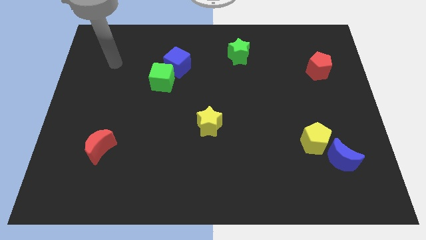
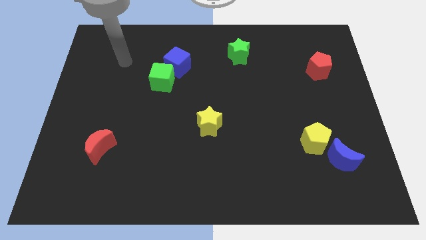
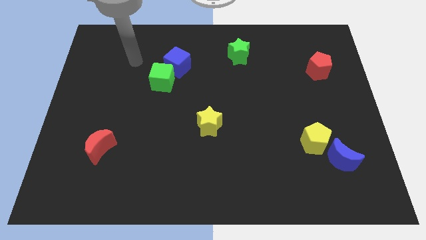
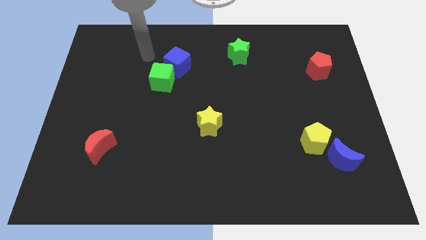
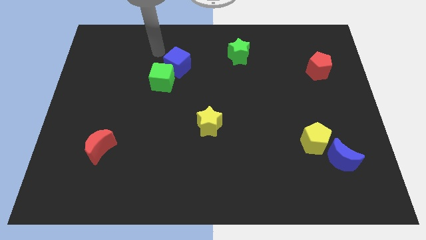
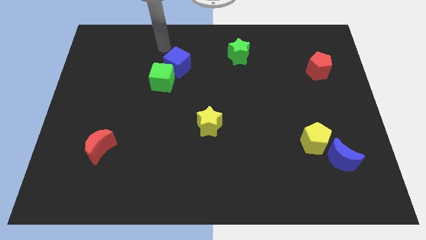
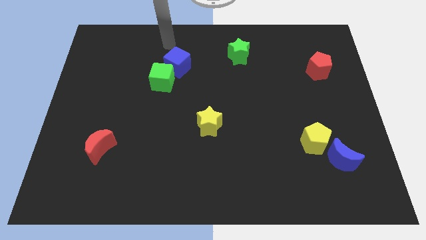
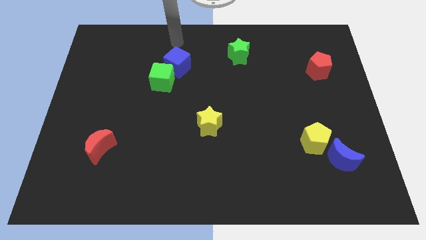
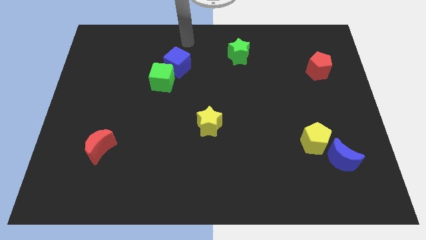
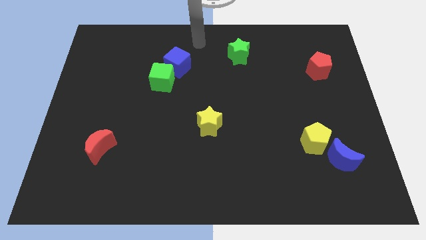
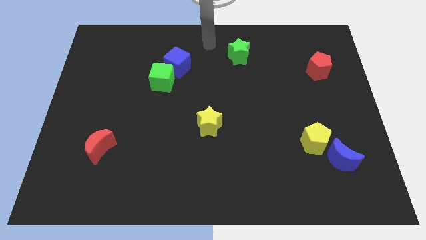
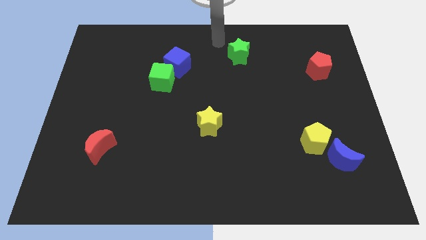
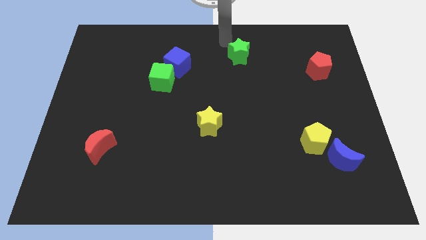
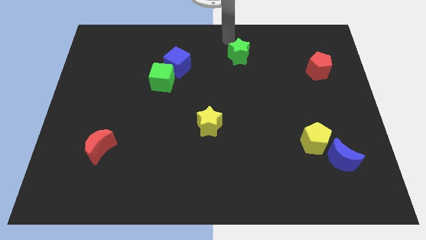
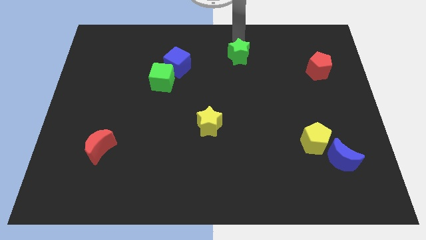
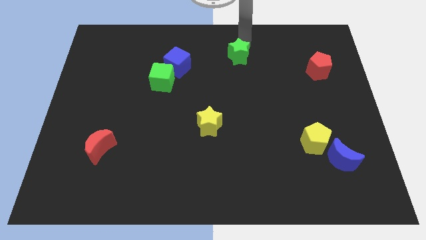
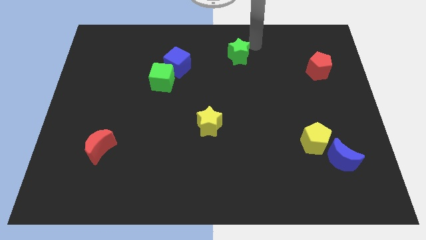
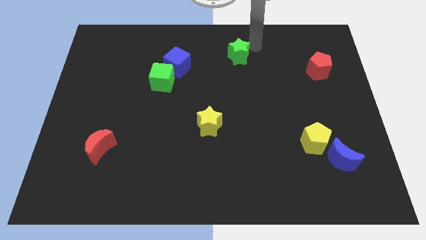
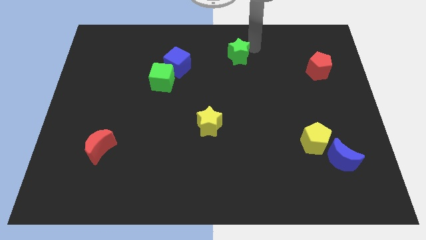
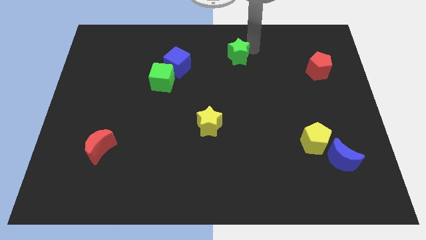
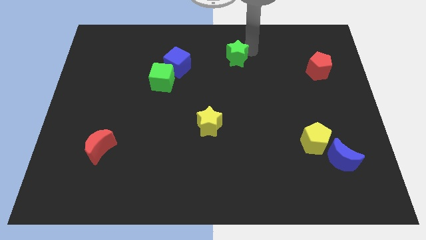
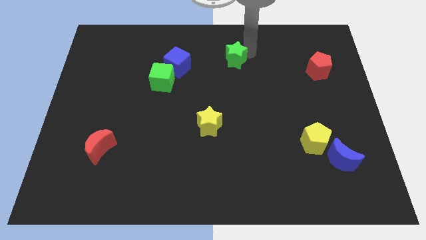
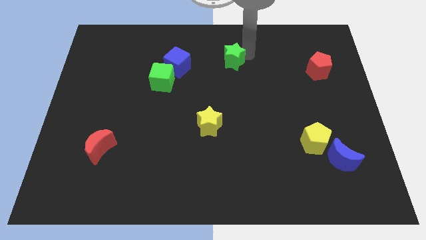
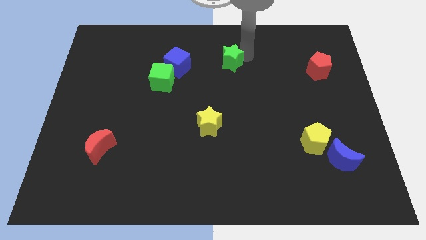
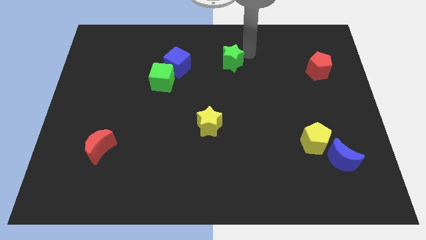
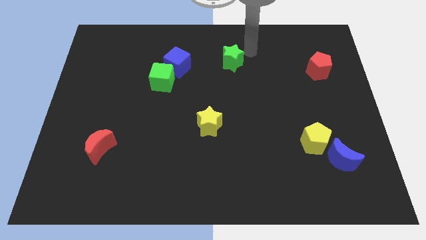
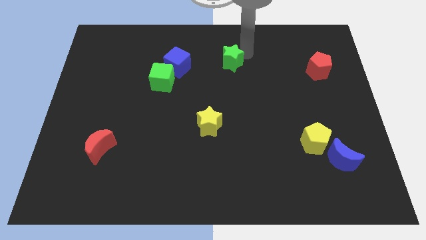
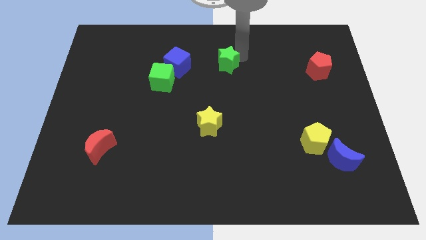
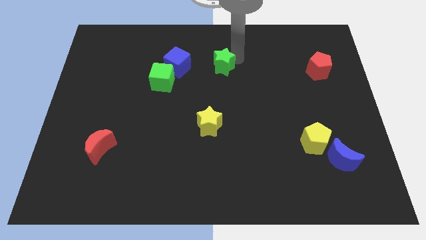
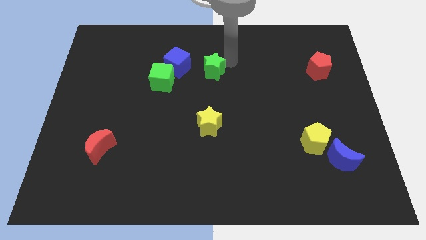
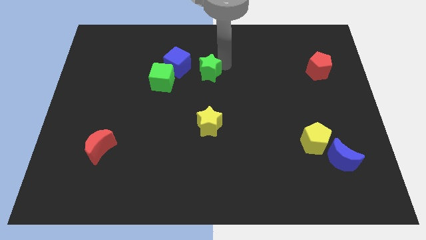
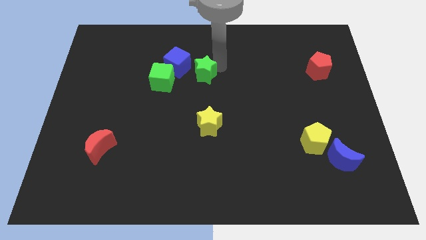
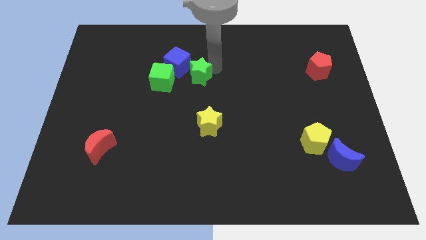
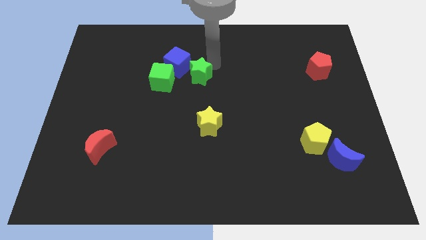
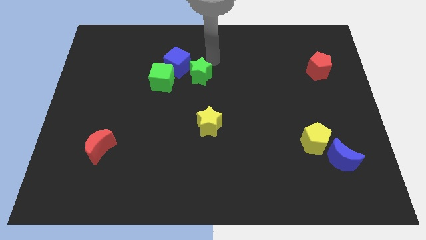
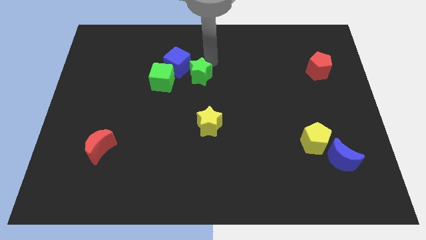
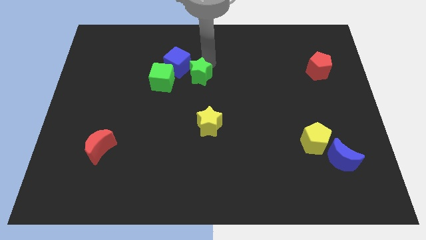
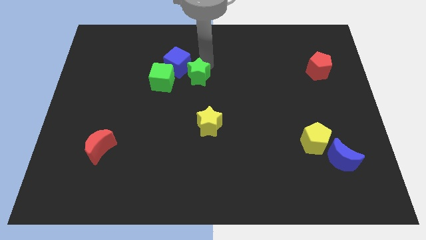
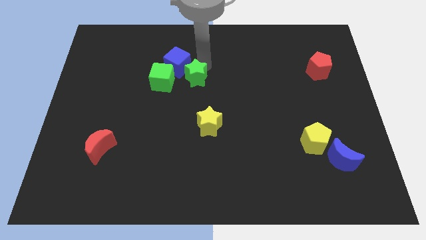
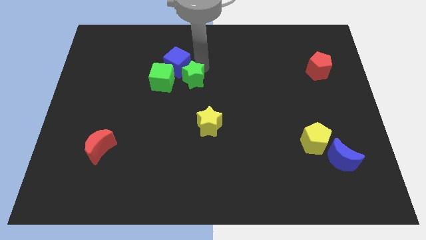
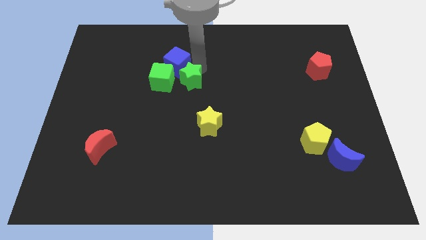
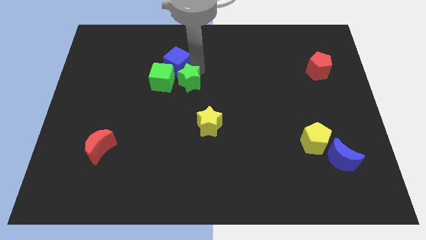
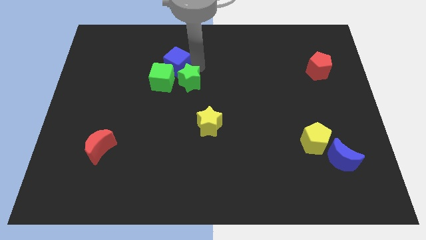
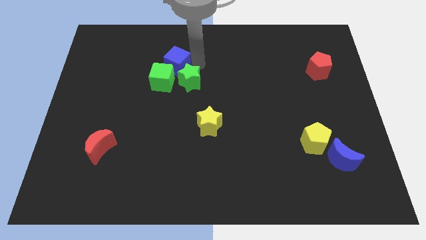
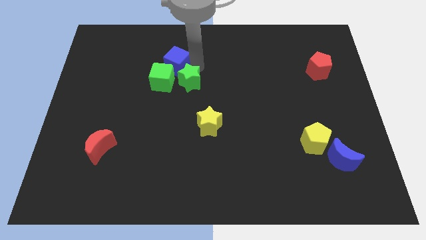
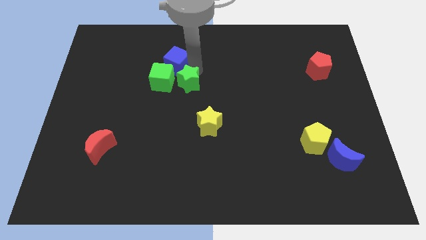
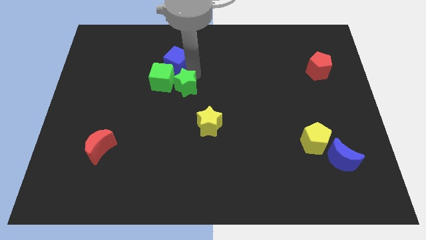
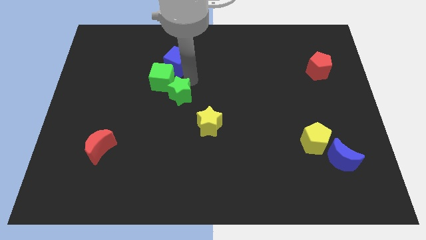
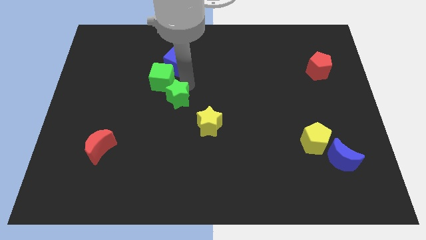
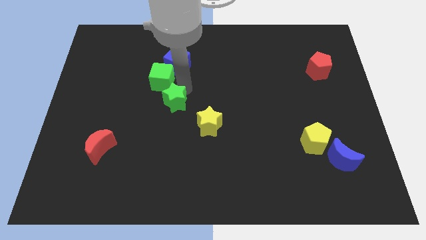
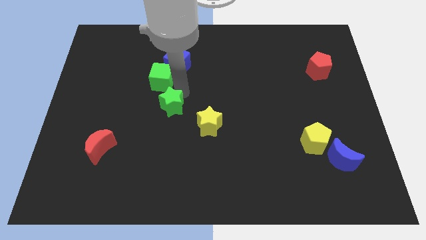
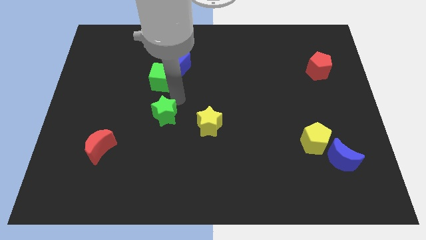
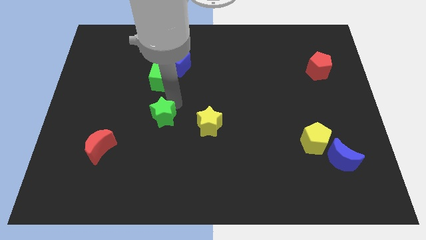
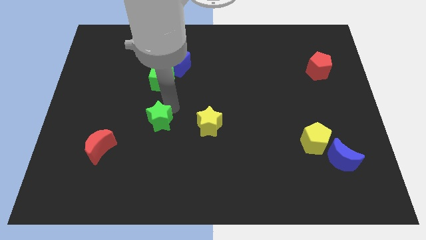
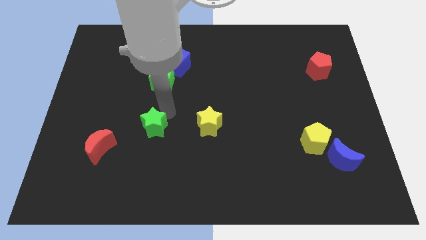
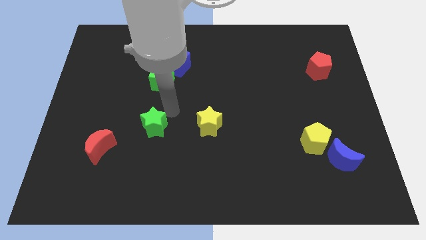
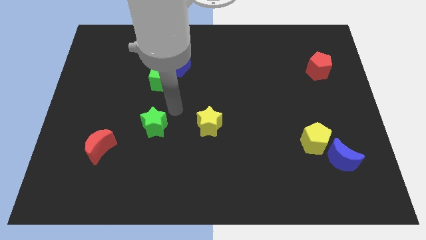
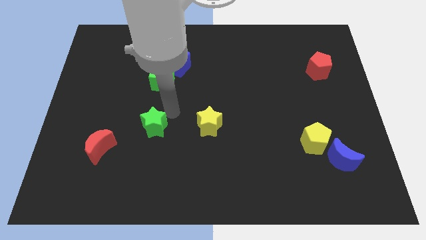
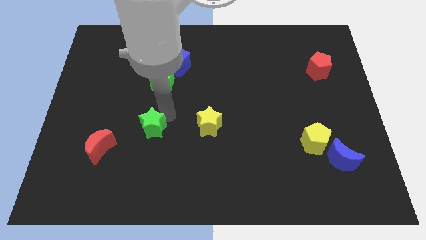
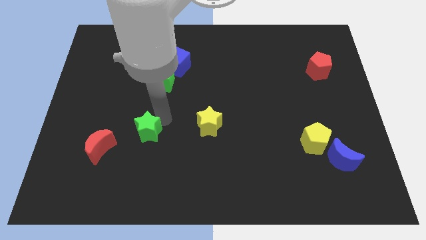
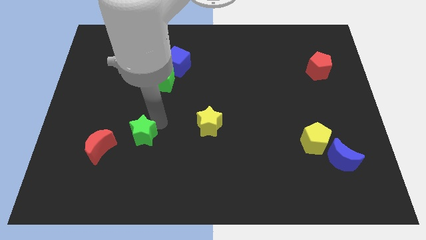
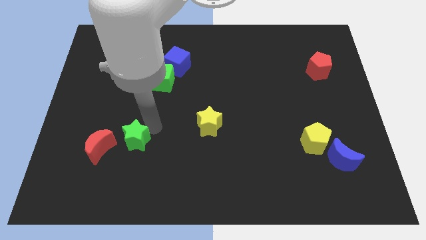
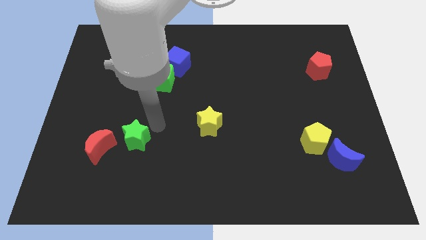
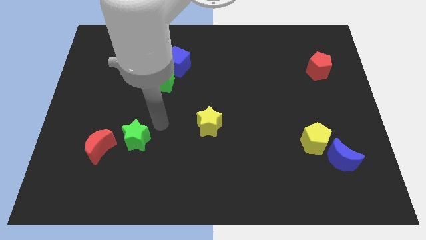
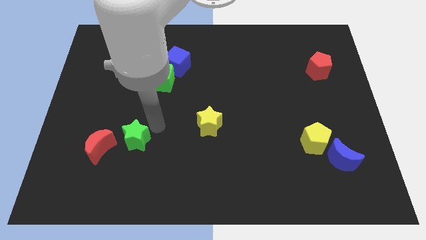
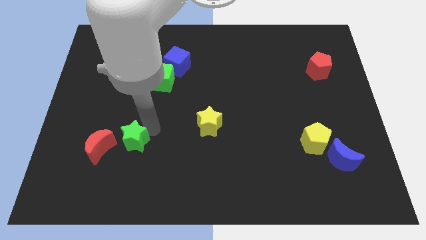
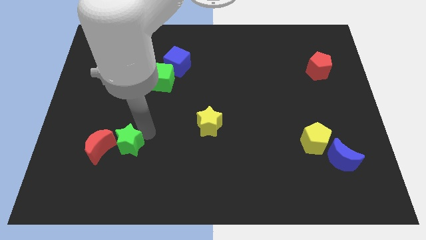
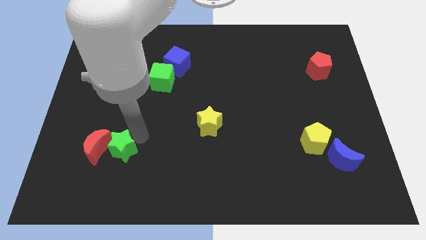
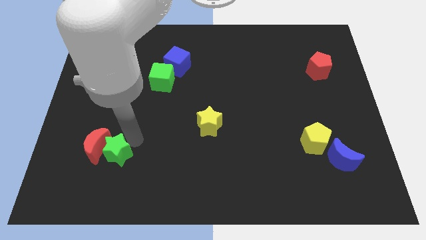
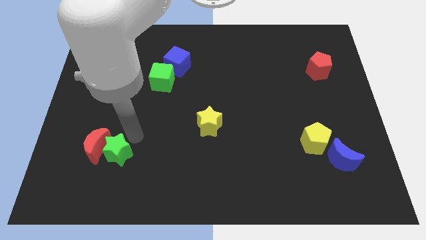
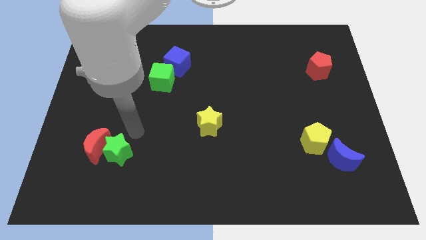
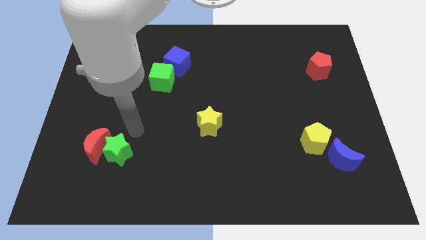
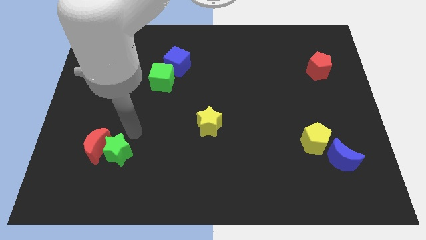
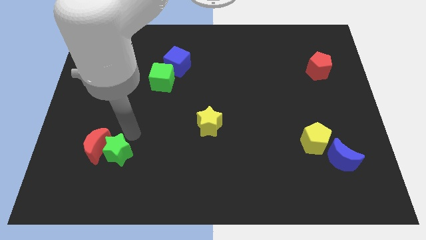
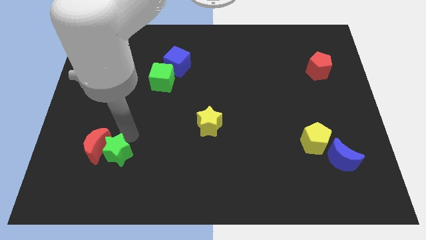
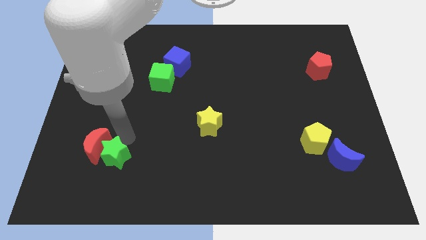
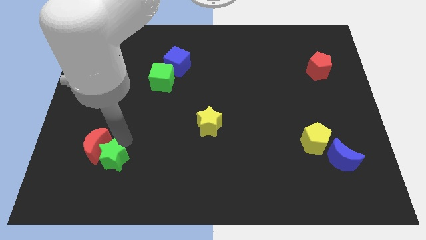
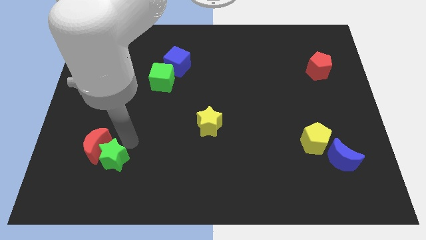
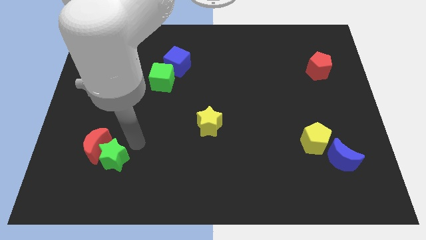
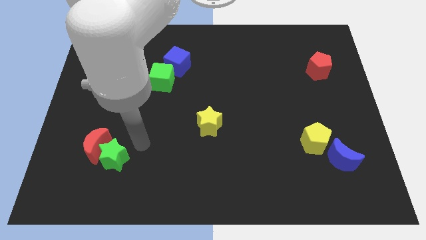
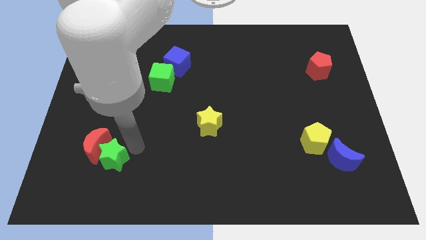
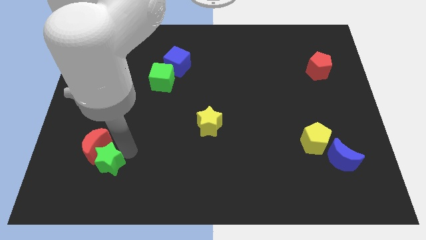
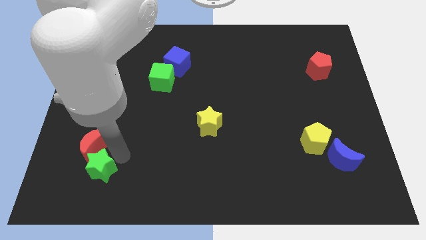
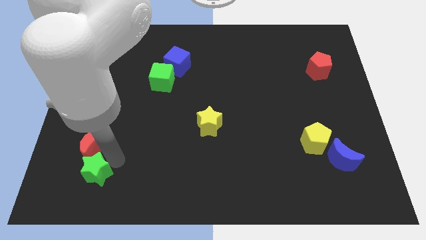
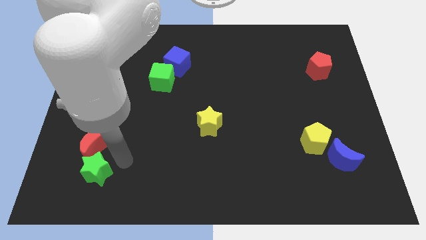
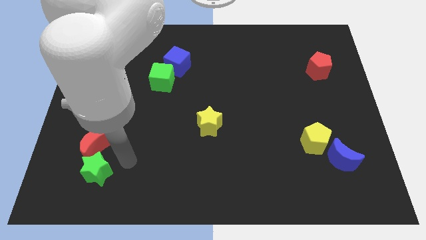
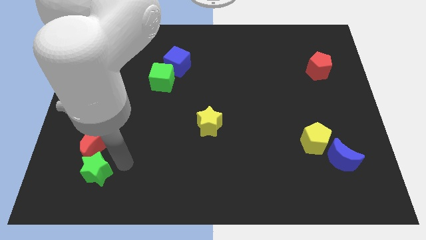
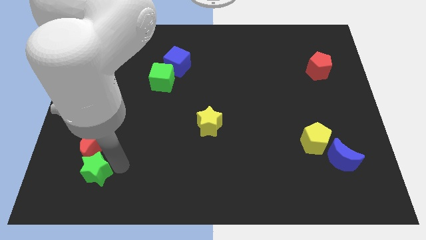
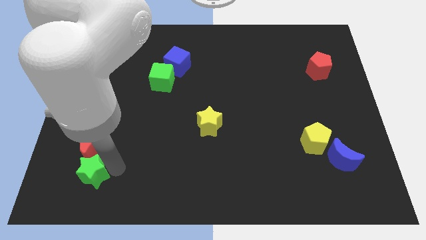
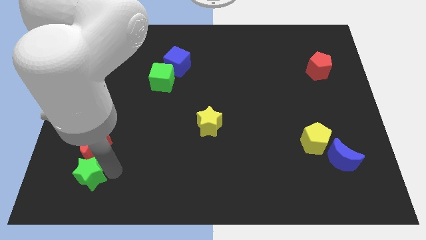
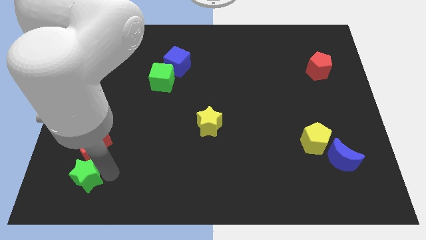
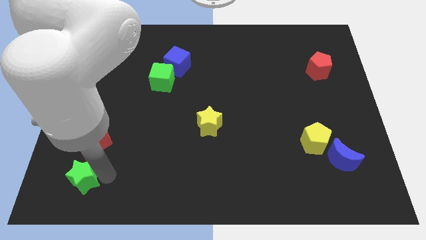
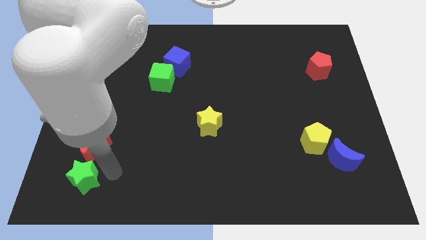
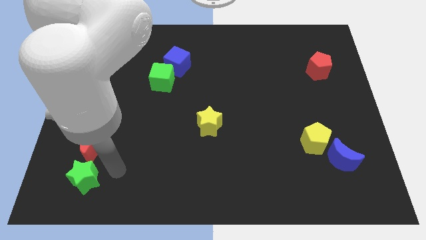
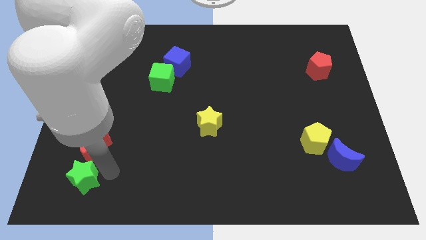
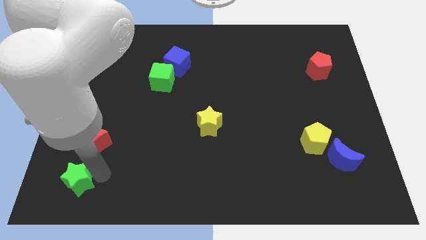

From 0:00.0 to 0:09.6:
push the green star to the bottom left corner
